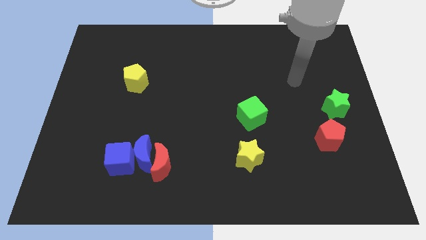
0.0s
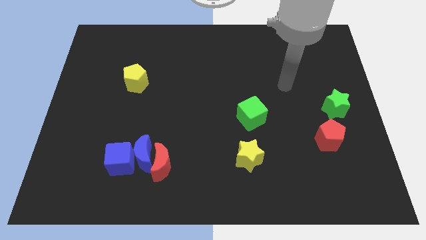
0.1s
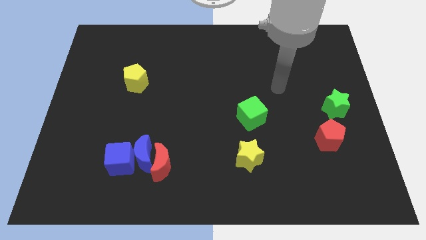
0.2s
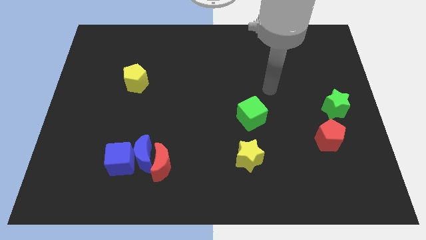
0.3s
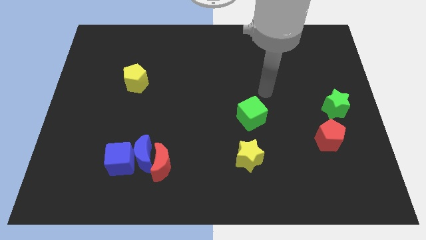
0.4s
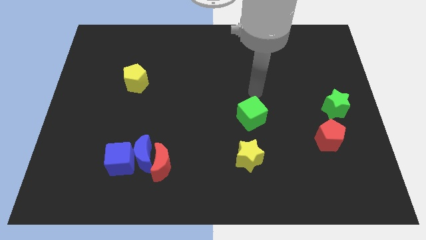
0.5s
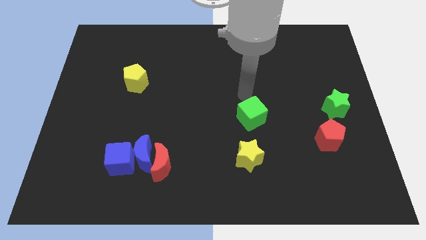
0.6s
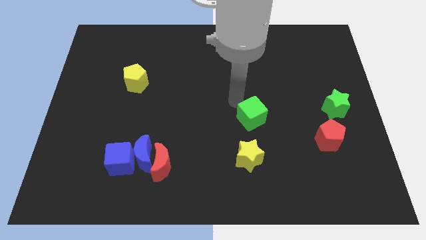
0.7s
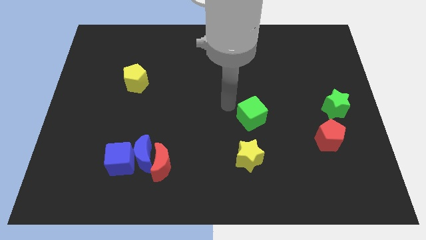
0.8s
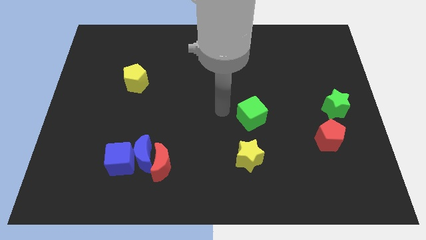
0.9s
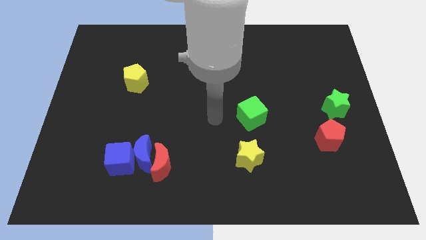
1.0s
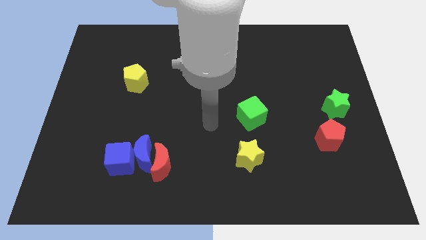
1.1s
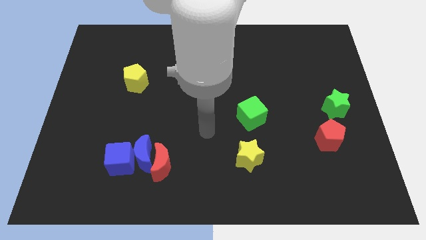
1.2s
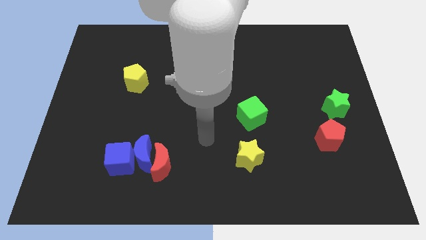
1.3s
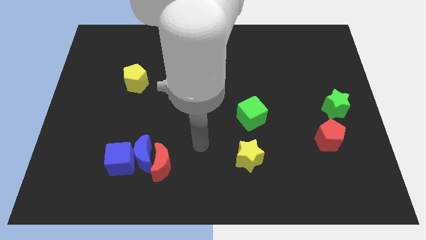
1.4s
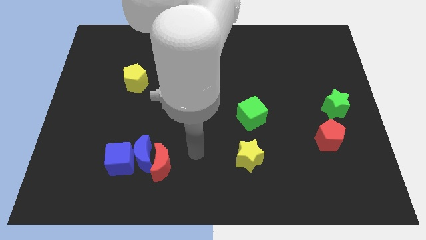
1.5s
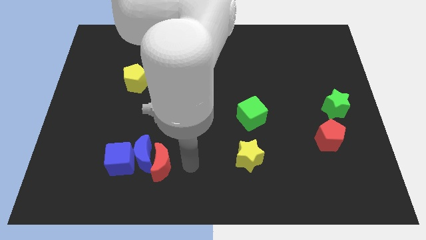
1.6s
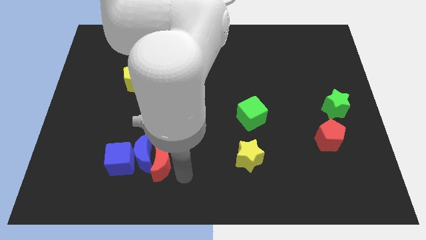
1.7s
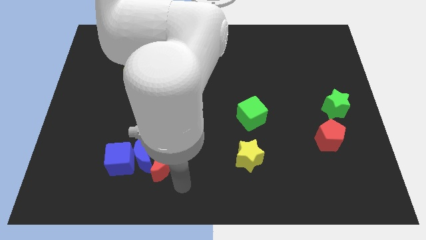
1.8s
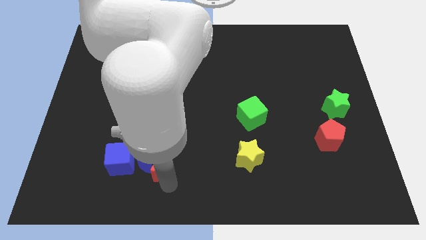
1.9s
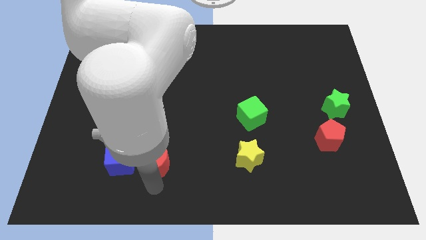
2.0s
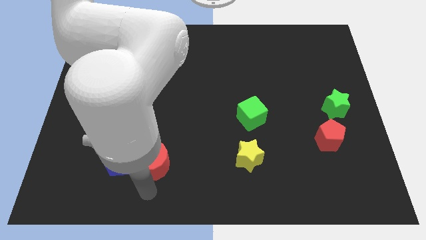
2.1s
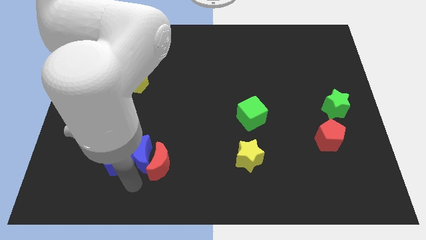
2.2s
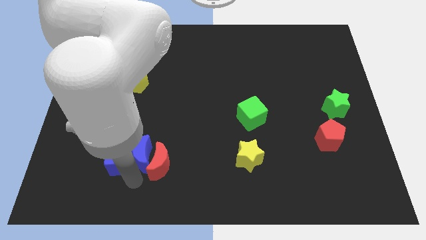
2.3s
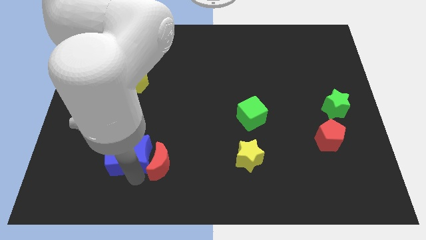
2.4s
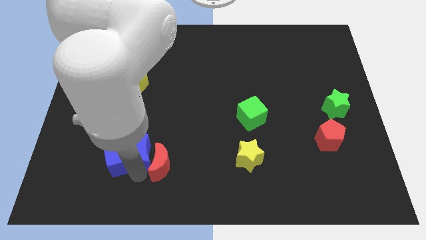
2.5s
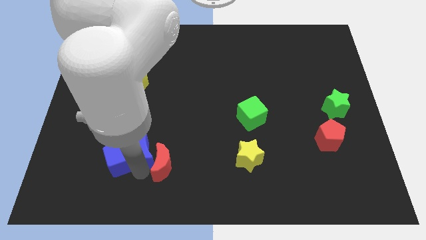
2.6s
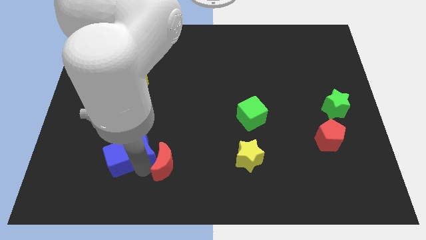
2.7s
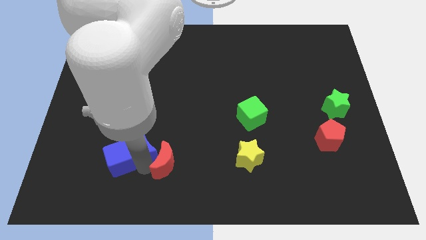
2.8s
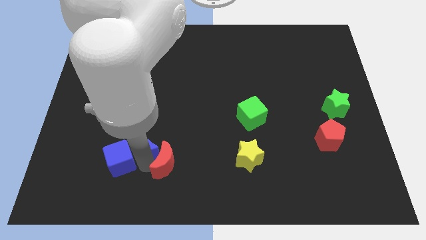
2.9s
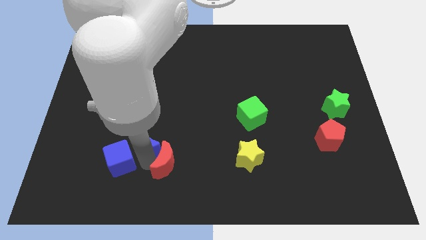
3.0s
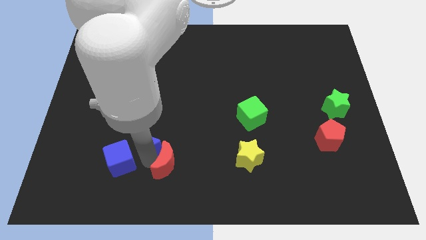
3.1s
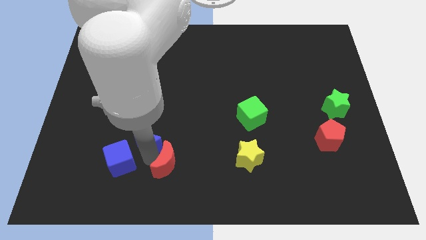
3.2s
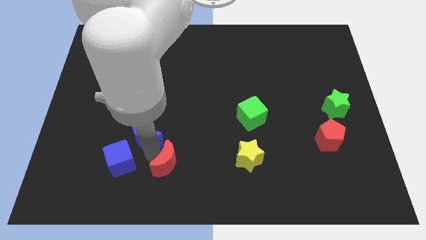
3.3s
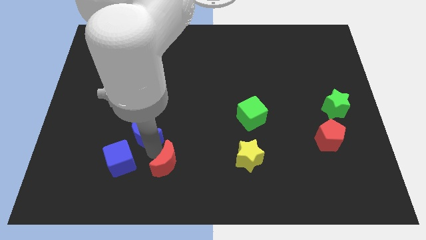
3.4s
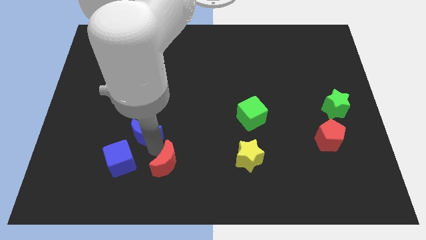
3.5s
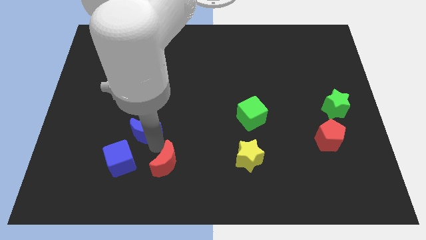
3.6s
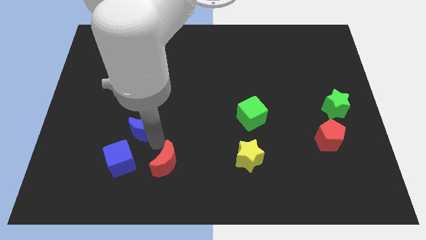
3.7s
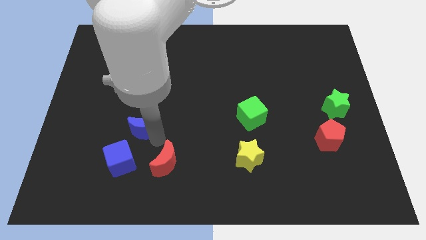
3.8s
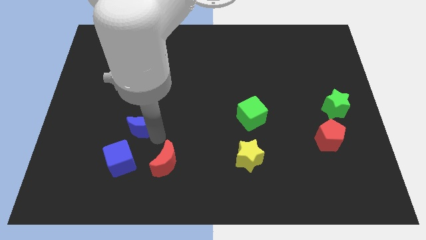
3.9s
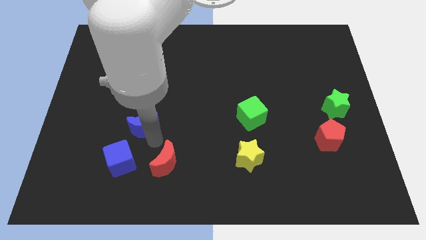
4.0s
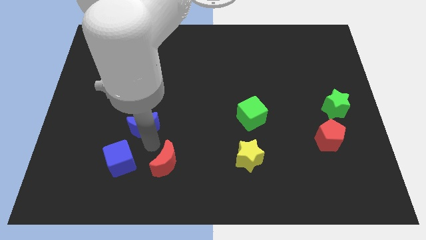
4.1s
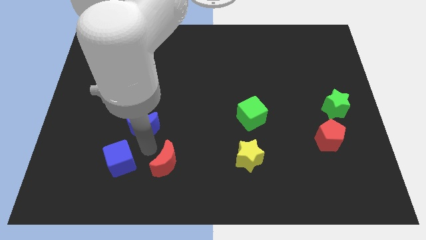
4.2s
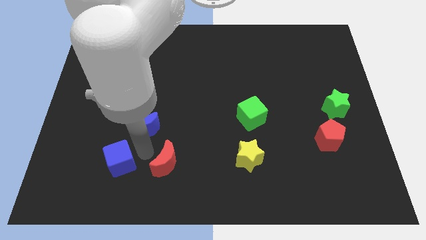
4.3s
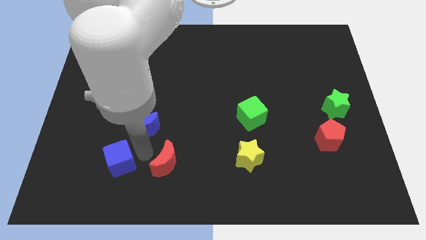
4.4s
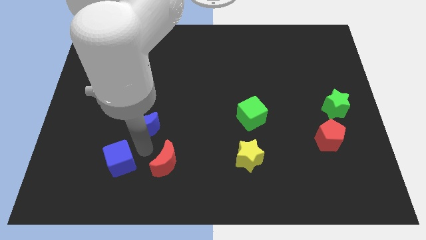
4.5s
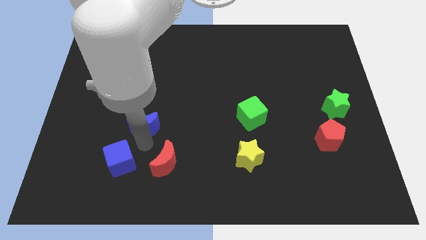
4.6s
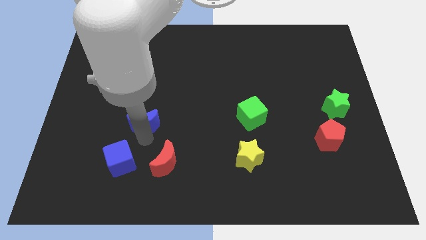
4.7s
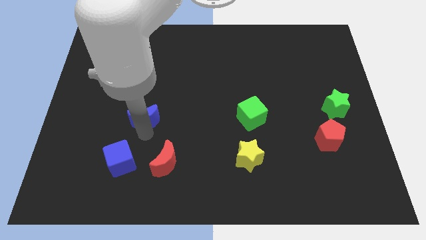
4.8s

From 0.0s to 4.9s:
move the blue moon away from the red moon and blue cube

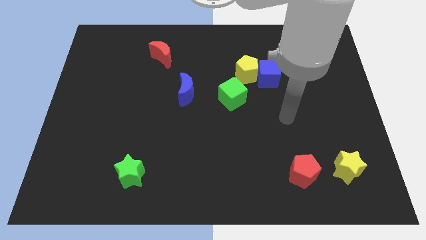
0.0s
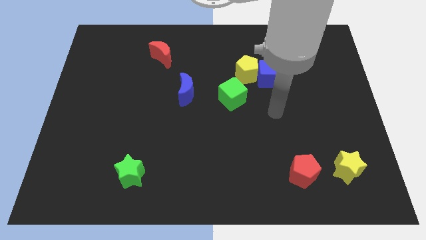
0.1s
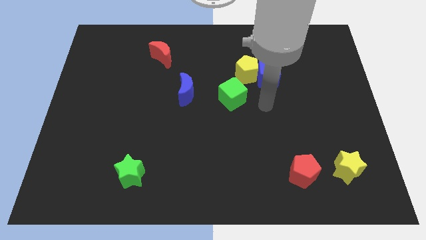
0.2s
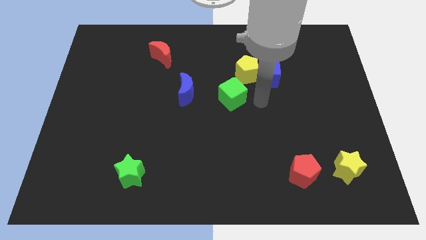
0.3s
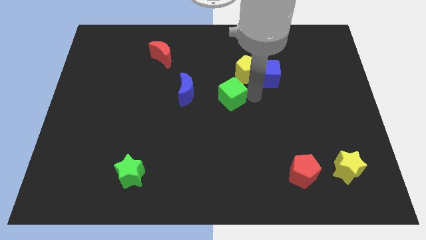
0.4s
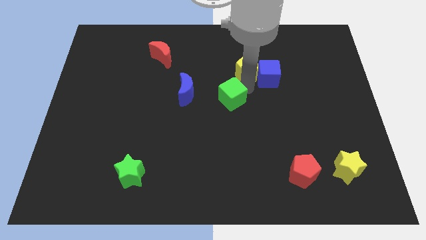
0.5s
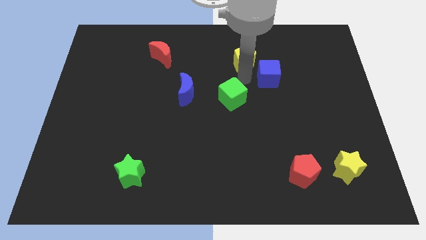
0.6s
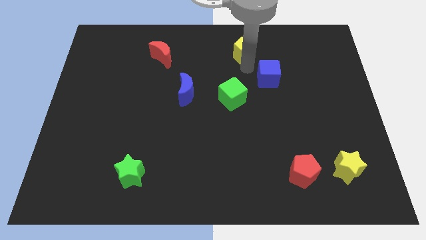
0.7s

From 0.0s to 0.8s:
move the blue cube away from the yellow pentagon

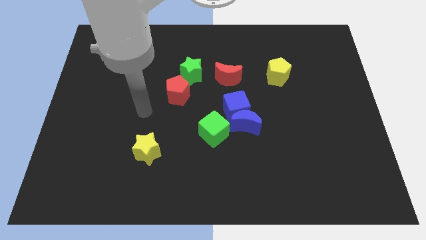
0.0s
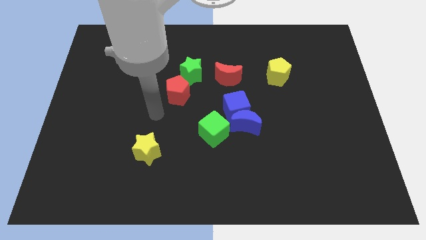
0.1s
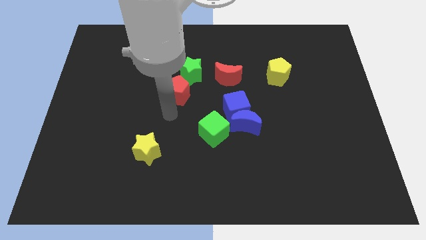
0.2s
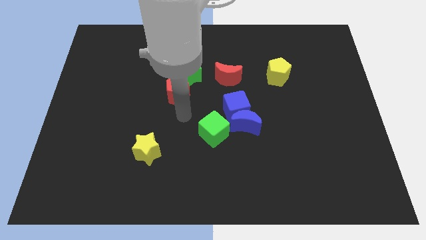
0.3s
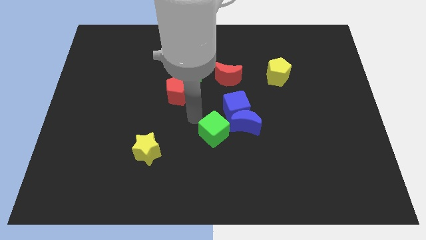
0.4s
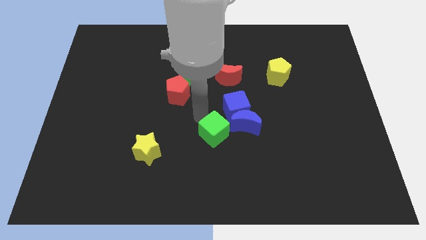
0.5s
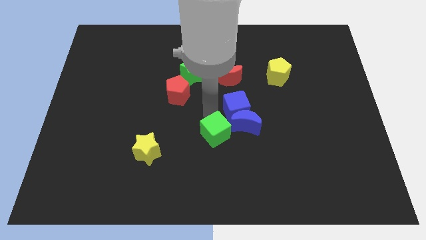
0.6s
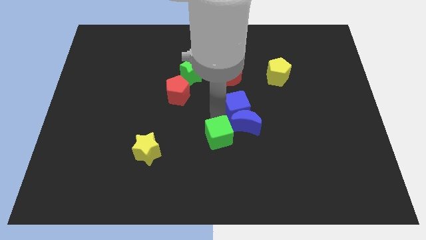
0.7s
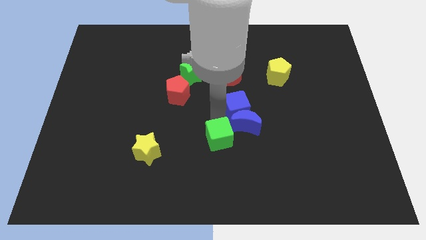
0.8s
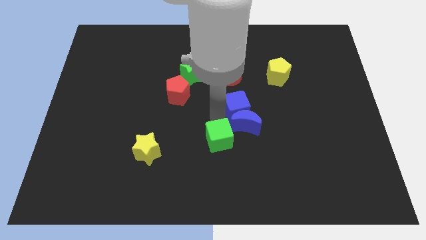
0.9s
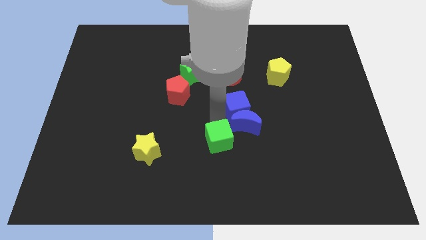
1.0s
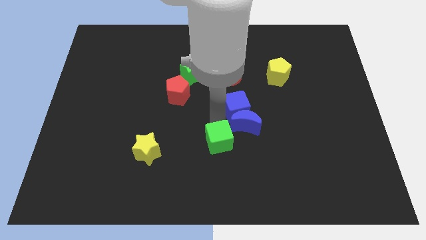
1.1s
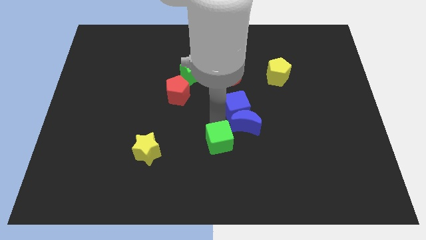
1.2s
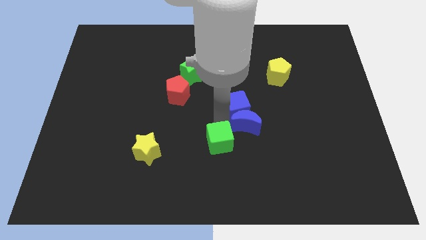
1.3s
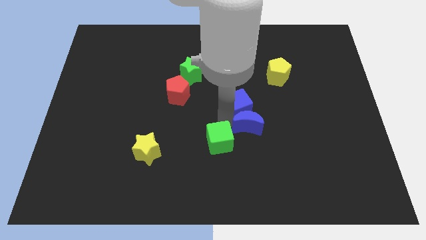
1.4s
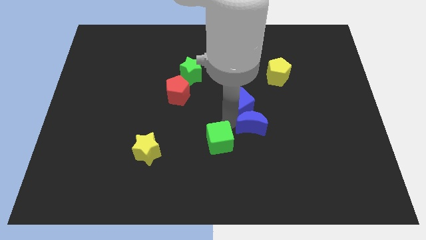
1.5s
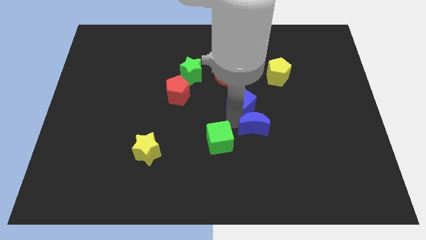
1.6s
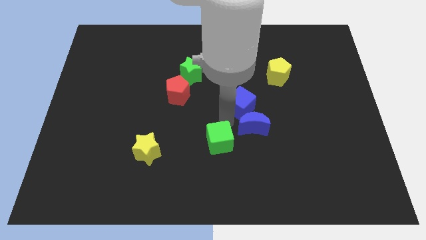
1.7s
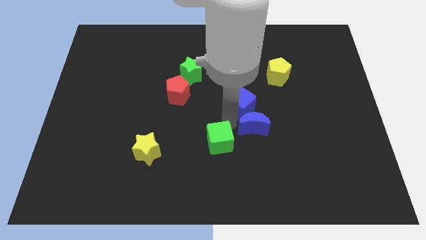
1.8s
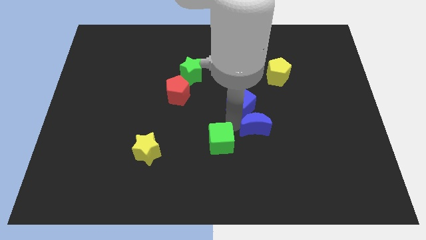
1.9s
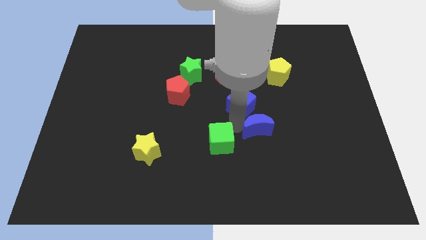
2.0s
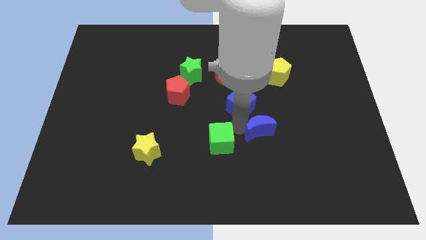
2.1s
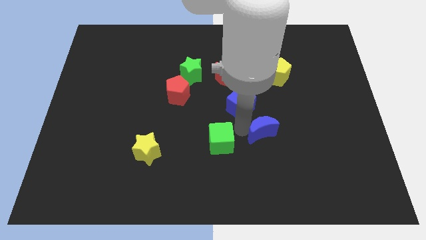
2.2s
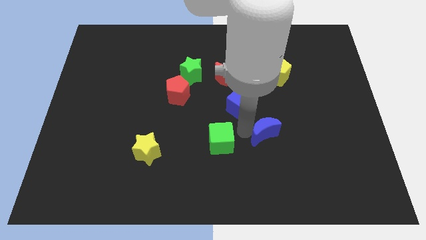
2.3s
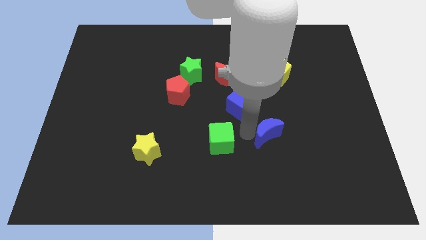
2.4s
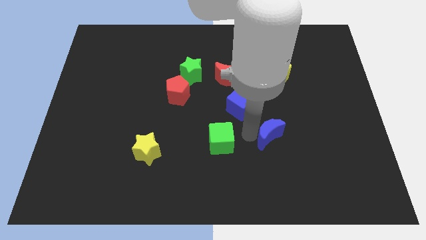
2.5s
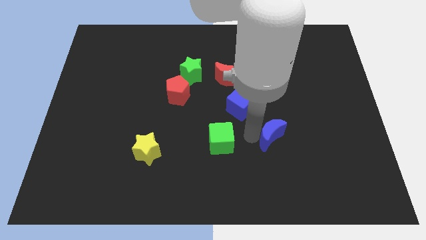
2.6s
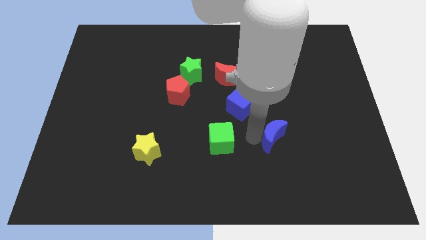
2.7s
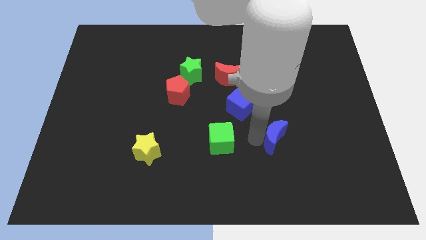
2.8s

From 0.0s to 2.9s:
separate the blue moon from the blue cube and green cube

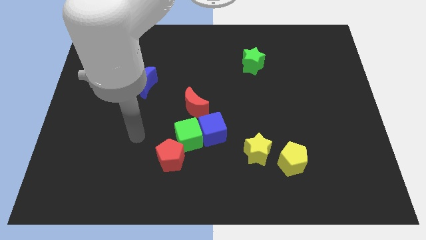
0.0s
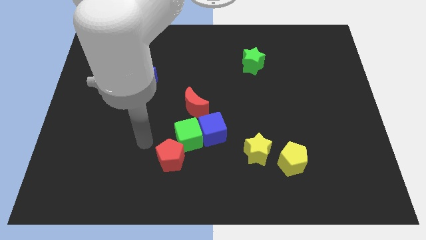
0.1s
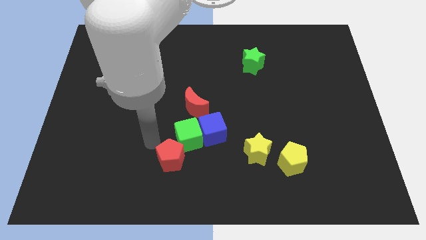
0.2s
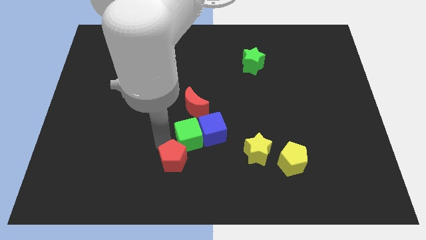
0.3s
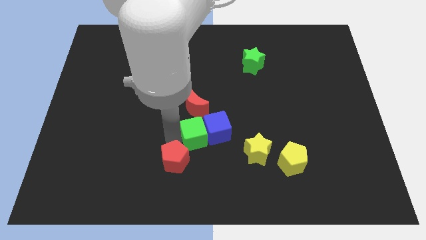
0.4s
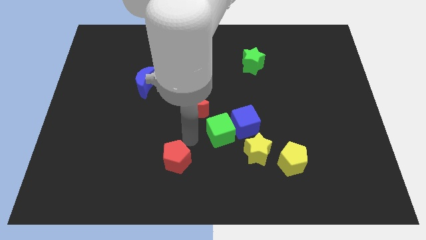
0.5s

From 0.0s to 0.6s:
separate the red pentagon from the green cube
